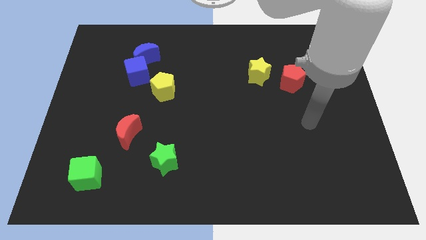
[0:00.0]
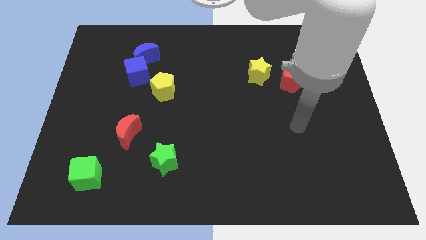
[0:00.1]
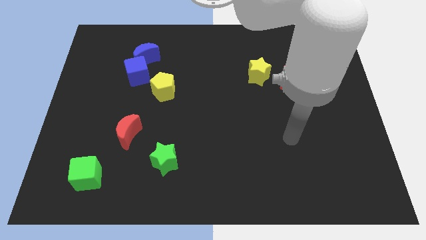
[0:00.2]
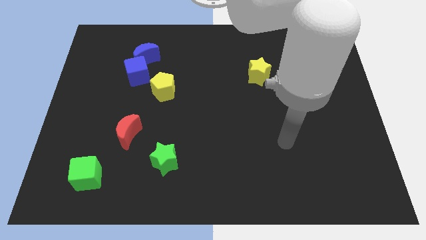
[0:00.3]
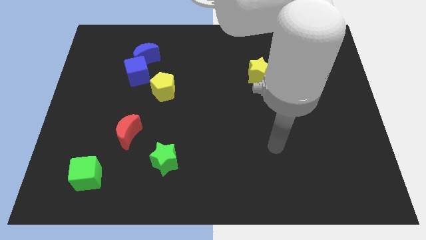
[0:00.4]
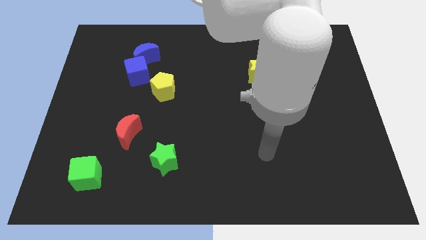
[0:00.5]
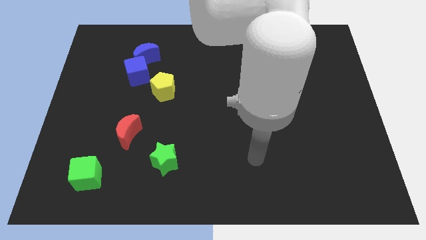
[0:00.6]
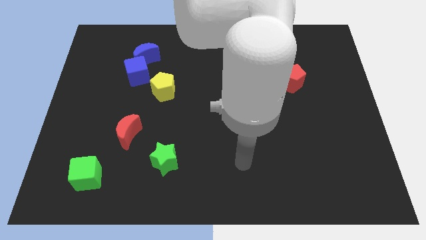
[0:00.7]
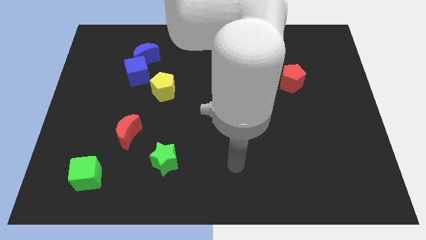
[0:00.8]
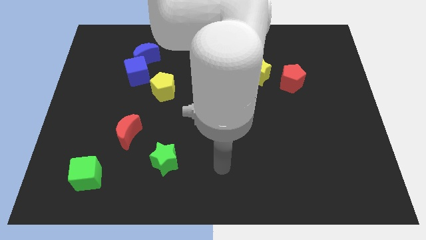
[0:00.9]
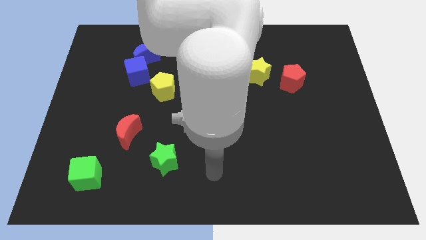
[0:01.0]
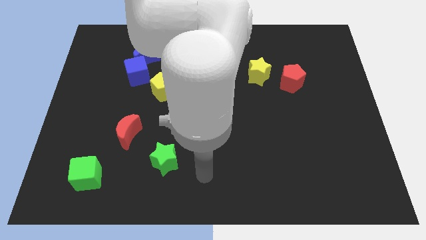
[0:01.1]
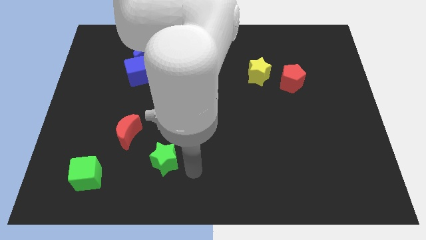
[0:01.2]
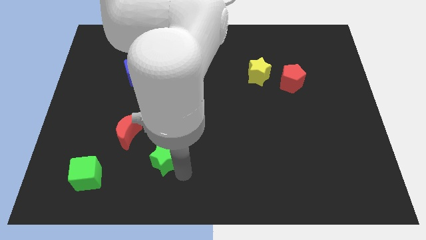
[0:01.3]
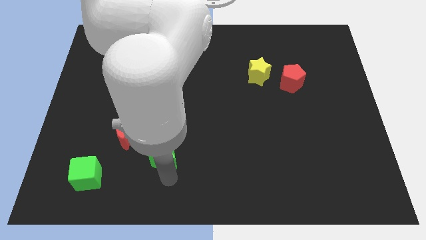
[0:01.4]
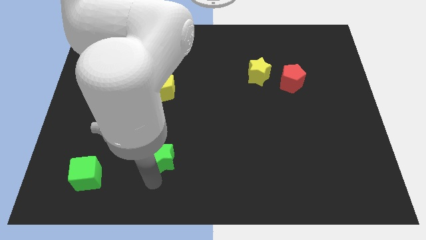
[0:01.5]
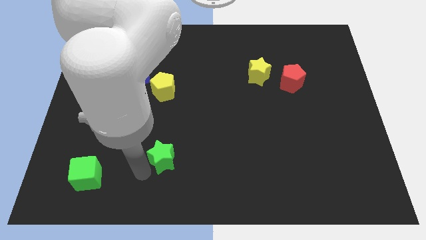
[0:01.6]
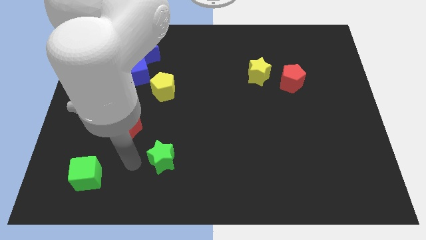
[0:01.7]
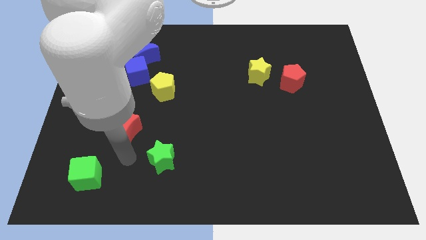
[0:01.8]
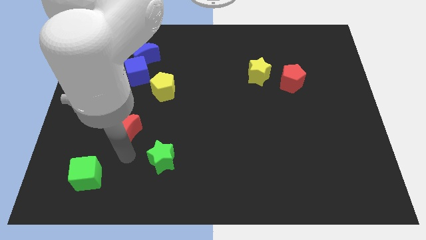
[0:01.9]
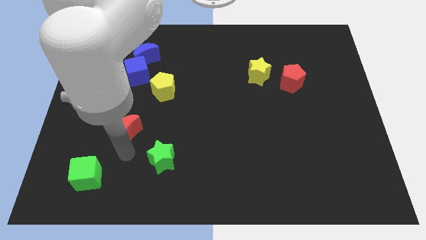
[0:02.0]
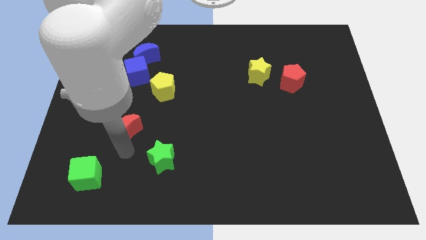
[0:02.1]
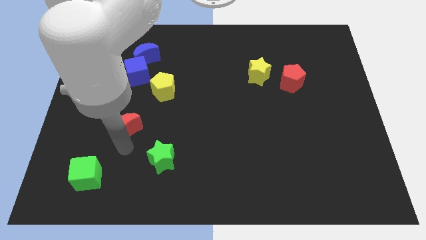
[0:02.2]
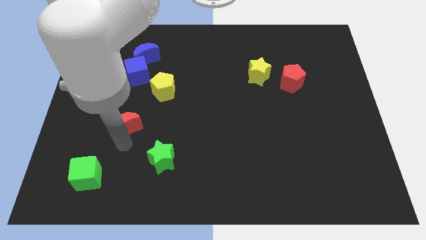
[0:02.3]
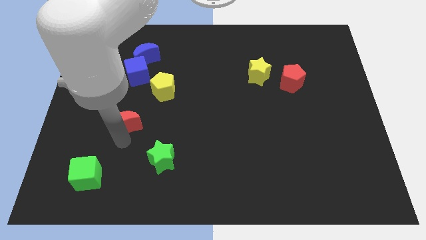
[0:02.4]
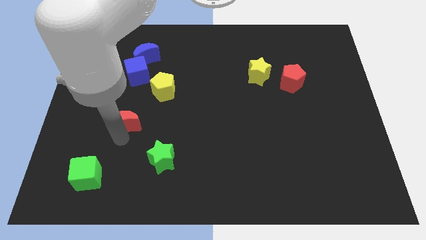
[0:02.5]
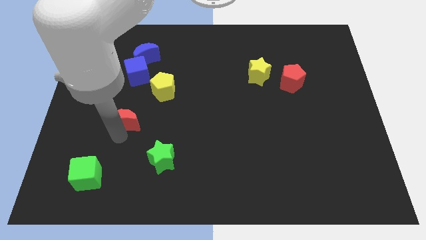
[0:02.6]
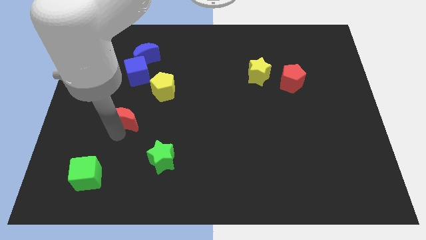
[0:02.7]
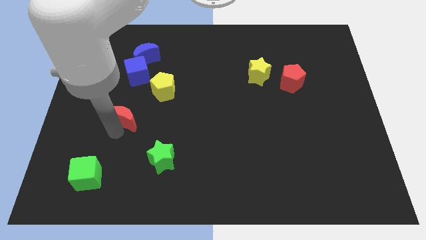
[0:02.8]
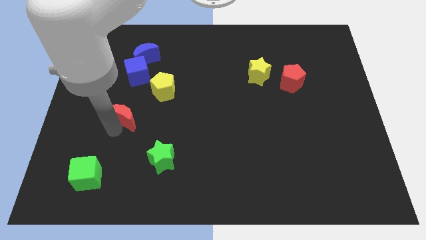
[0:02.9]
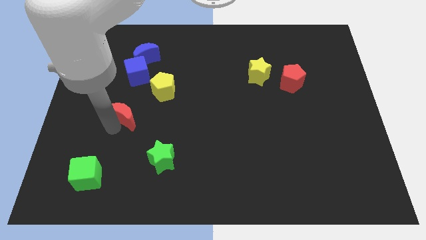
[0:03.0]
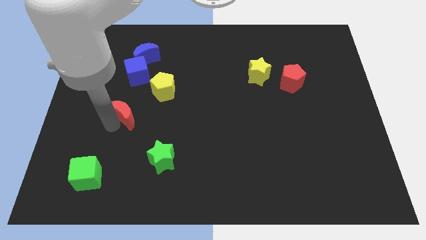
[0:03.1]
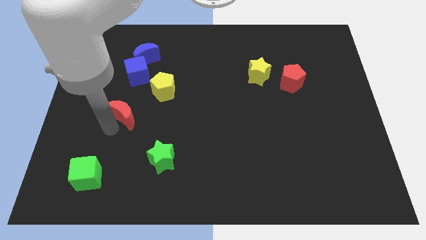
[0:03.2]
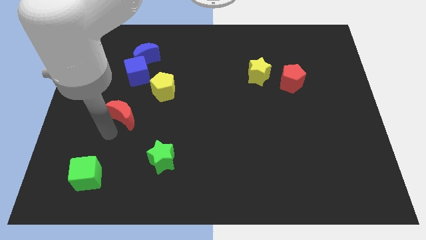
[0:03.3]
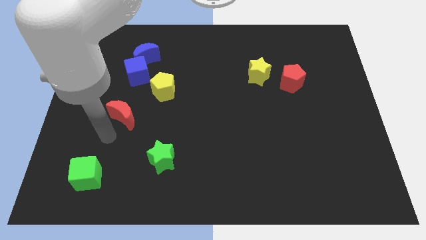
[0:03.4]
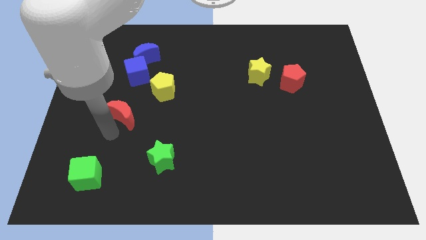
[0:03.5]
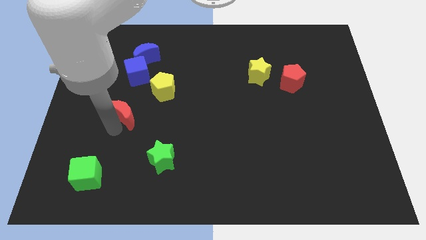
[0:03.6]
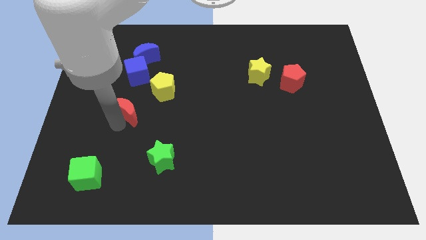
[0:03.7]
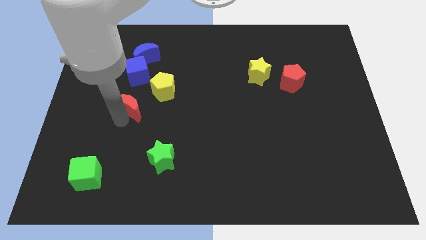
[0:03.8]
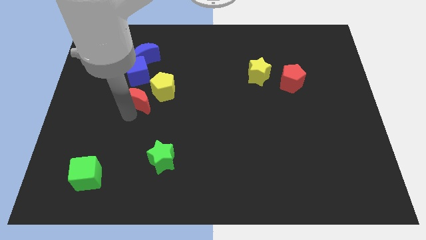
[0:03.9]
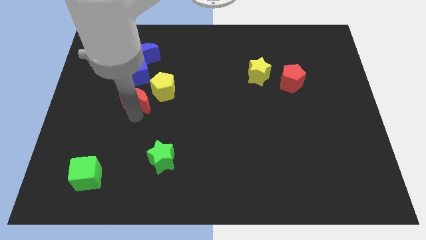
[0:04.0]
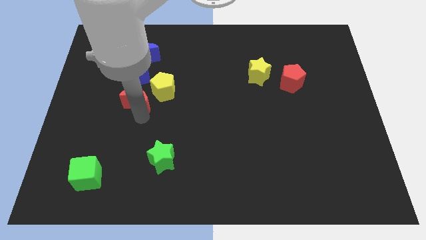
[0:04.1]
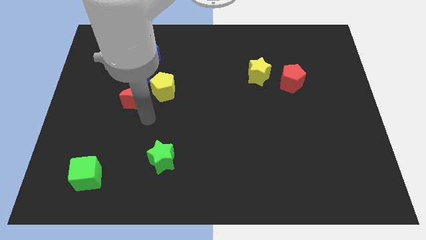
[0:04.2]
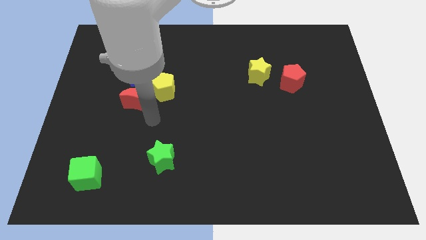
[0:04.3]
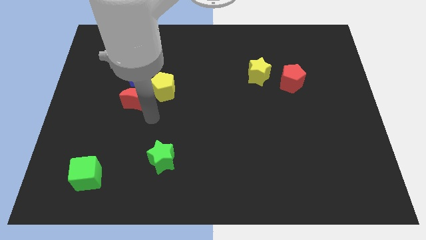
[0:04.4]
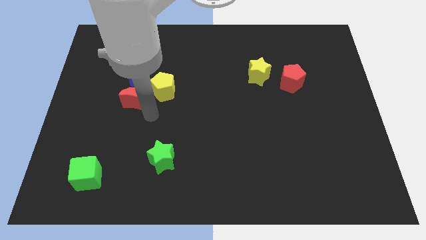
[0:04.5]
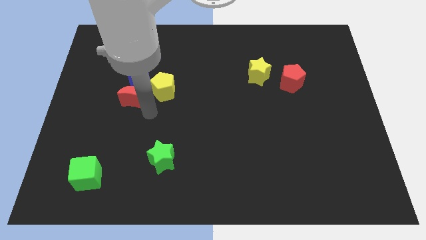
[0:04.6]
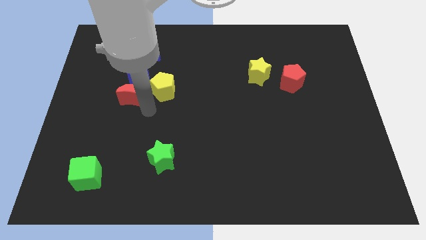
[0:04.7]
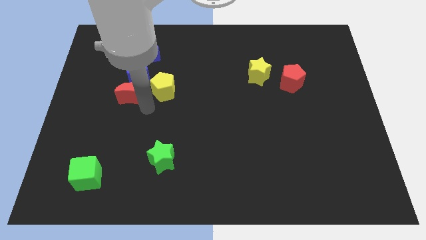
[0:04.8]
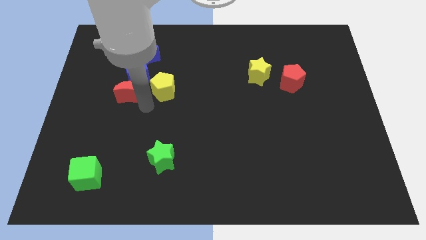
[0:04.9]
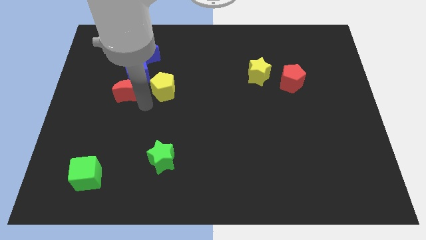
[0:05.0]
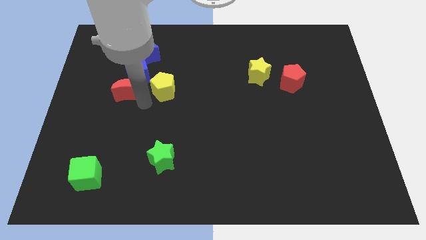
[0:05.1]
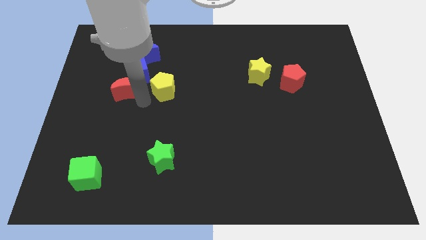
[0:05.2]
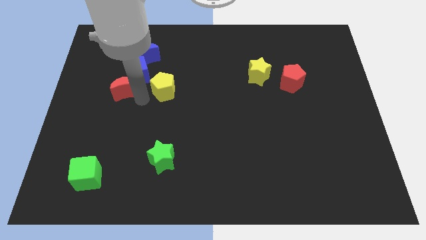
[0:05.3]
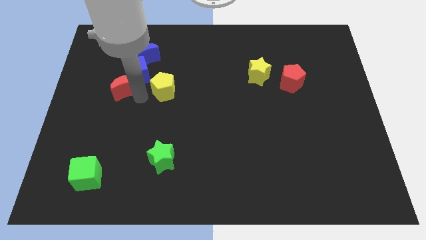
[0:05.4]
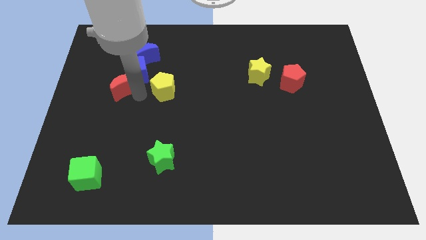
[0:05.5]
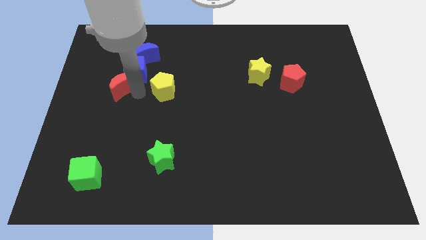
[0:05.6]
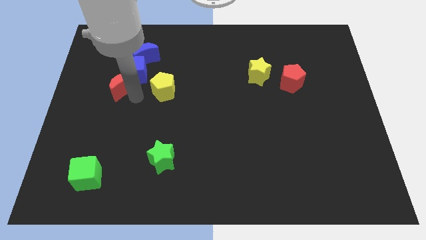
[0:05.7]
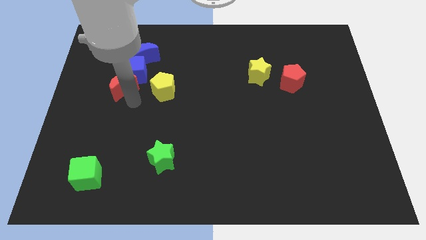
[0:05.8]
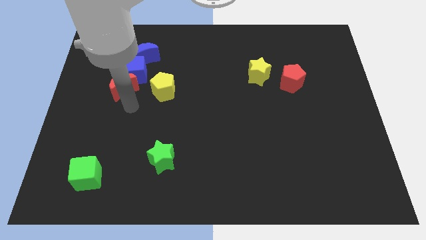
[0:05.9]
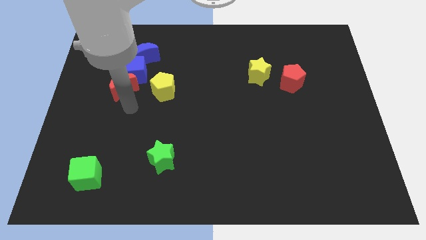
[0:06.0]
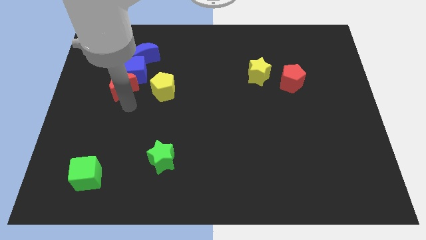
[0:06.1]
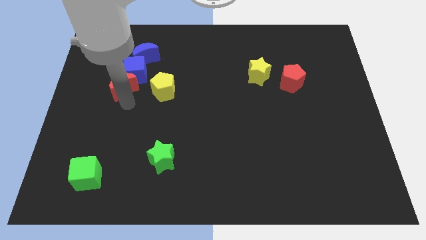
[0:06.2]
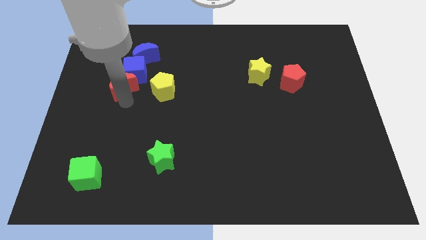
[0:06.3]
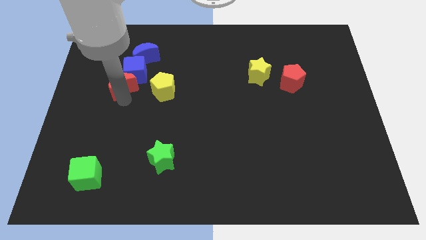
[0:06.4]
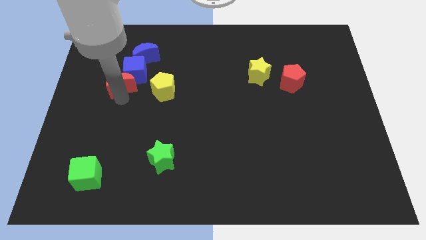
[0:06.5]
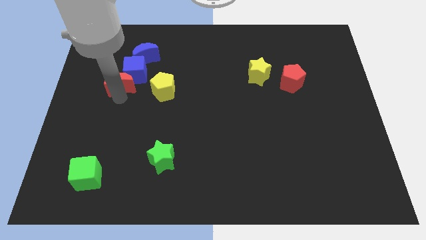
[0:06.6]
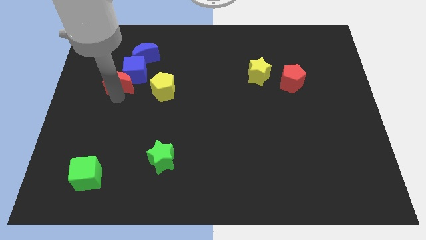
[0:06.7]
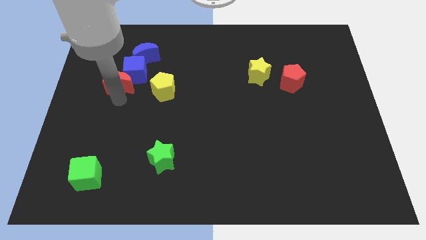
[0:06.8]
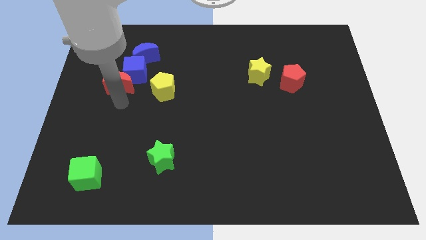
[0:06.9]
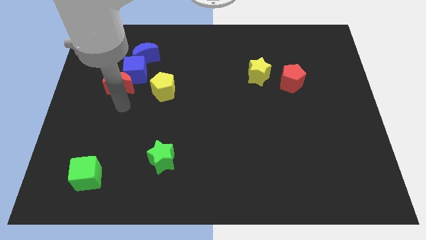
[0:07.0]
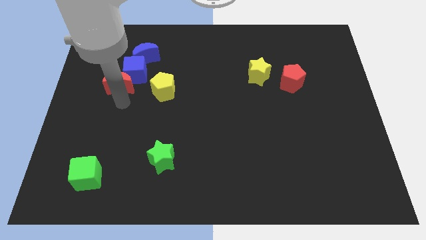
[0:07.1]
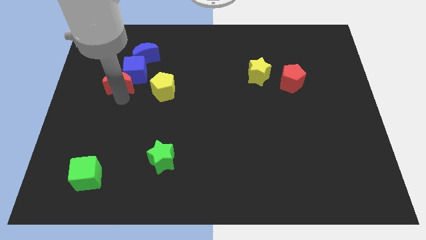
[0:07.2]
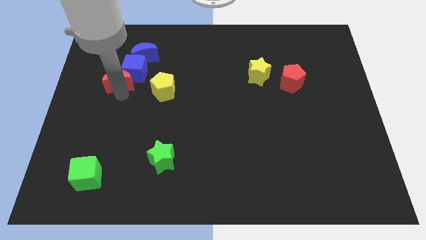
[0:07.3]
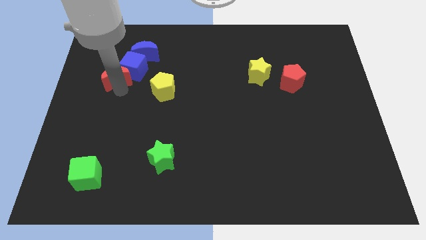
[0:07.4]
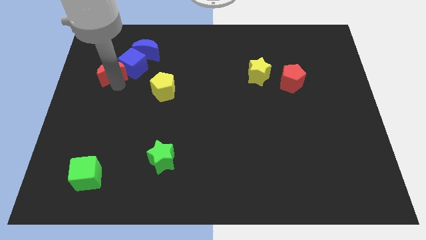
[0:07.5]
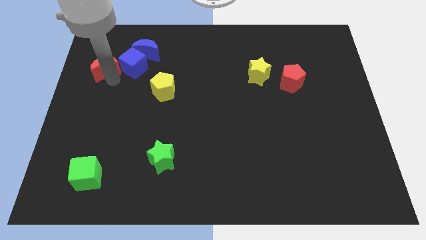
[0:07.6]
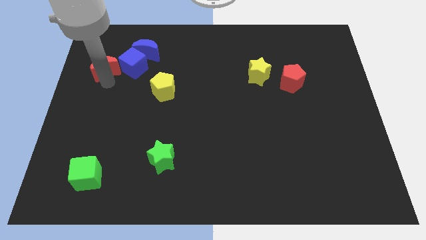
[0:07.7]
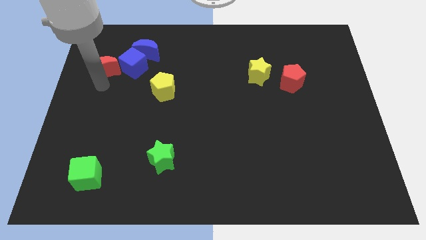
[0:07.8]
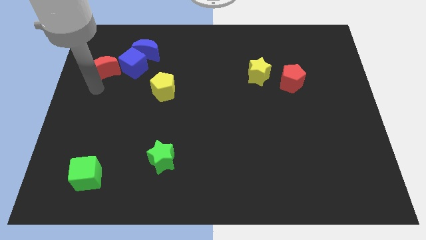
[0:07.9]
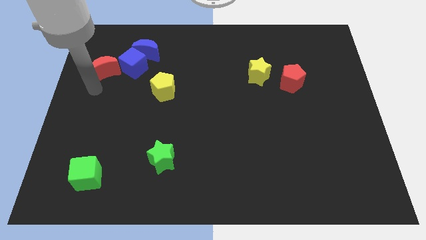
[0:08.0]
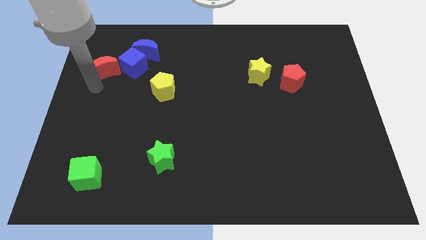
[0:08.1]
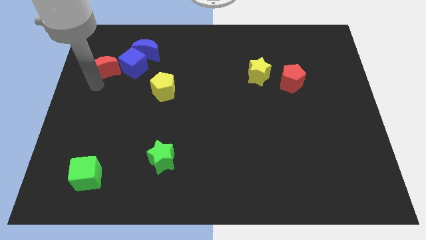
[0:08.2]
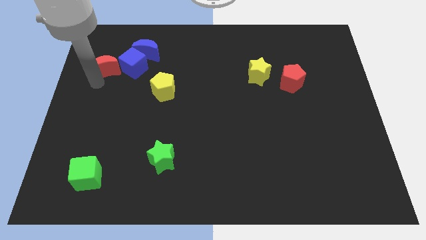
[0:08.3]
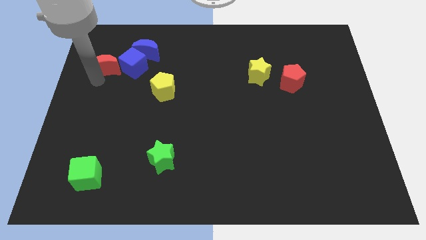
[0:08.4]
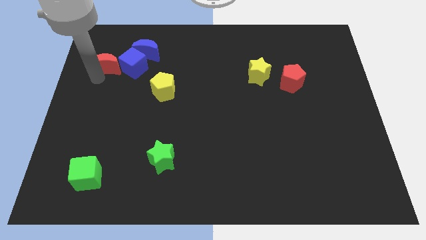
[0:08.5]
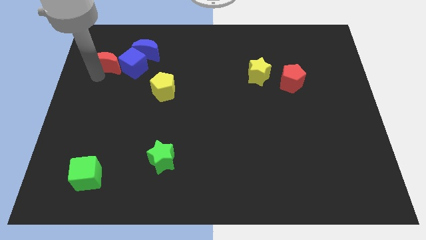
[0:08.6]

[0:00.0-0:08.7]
move the red moon to the top left of the blue cube
